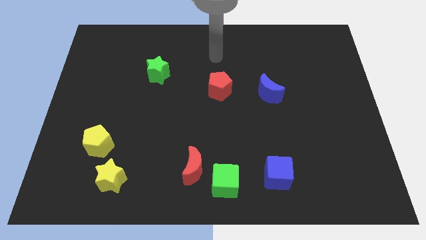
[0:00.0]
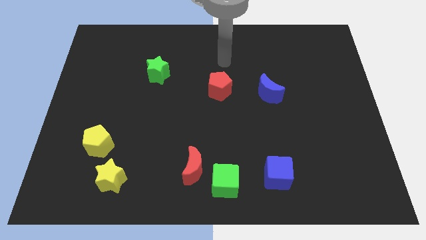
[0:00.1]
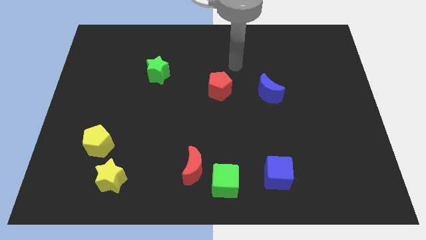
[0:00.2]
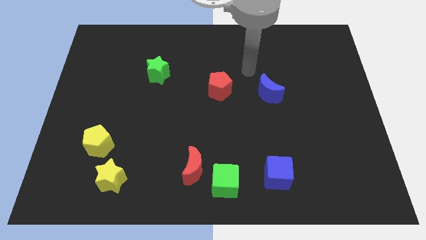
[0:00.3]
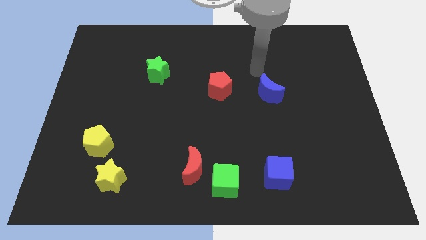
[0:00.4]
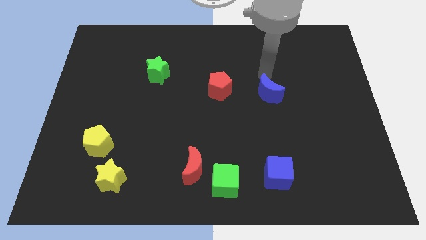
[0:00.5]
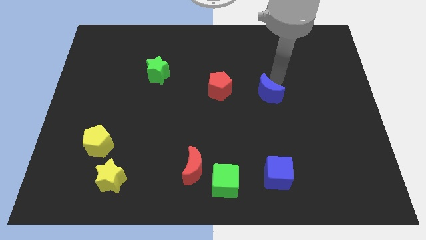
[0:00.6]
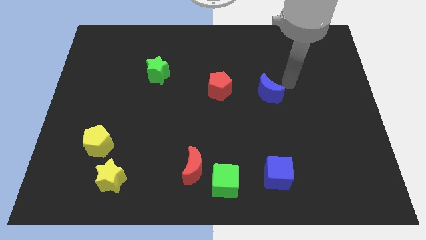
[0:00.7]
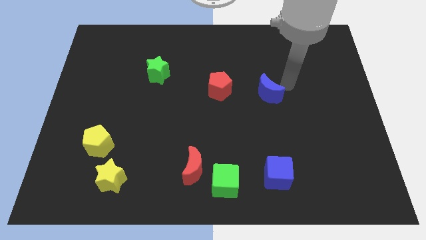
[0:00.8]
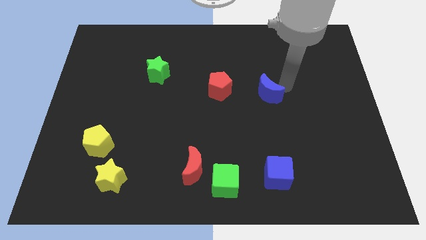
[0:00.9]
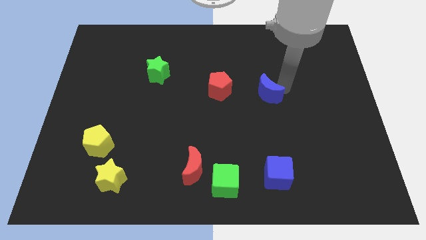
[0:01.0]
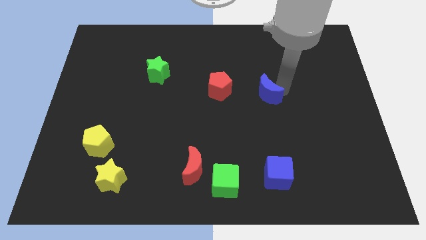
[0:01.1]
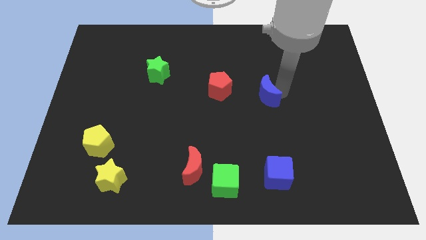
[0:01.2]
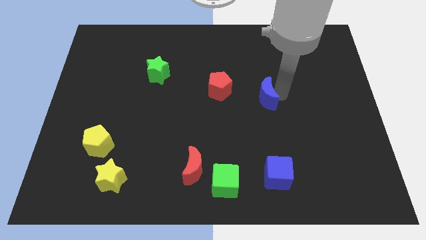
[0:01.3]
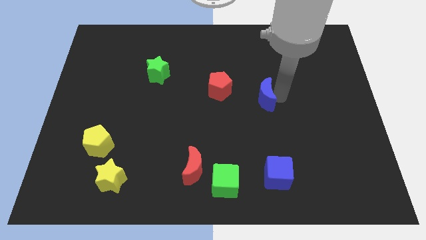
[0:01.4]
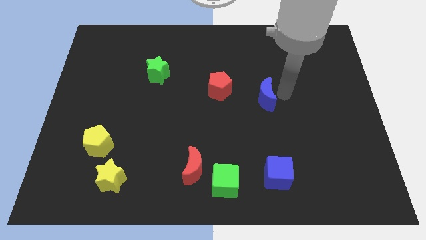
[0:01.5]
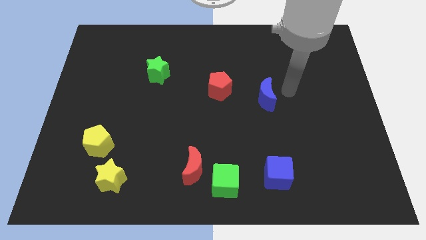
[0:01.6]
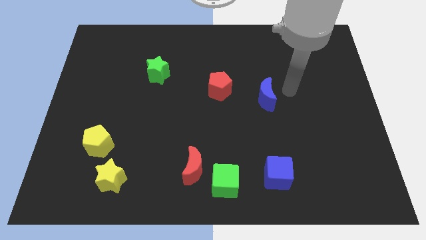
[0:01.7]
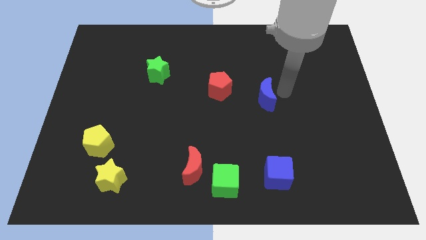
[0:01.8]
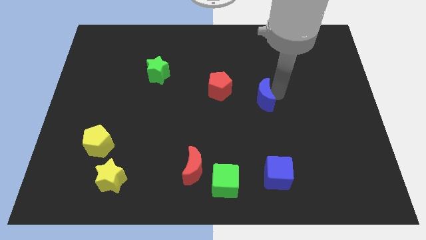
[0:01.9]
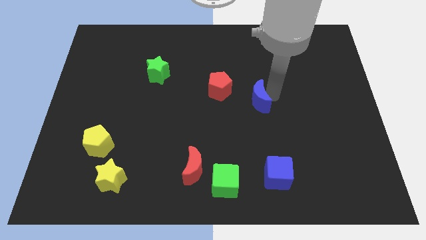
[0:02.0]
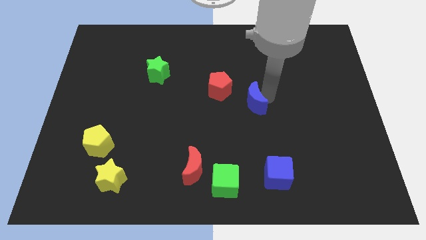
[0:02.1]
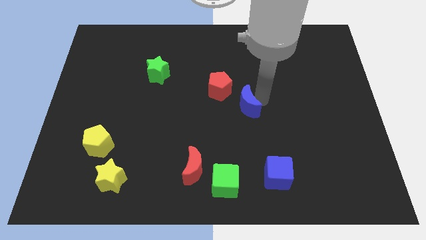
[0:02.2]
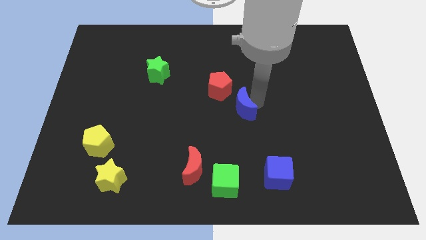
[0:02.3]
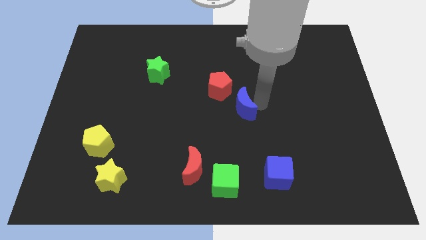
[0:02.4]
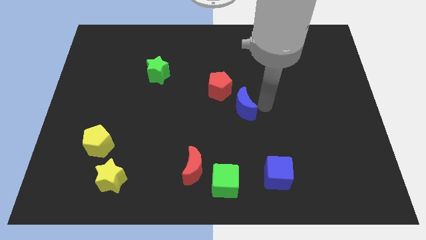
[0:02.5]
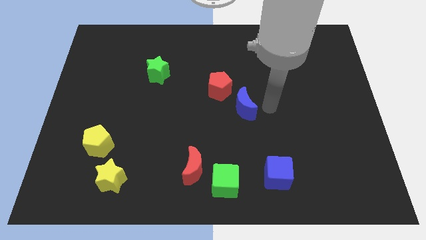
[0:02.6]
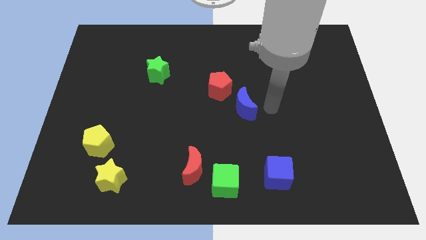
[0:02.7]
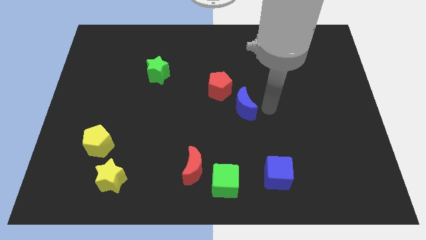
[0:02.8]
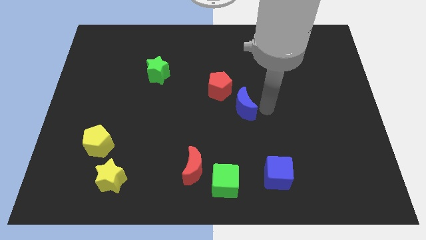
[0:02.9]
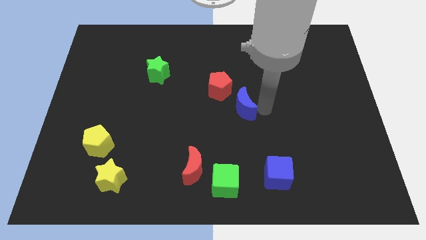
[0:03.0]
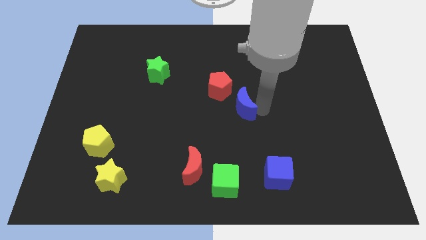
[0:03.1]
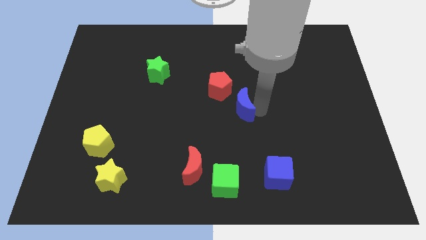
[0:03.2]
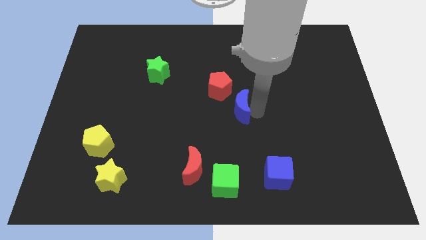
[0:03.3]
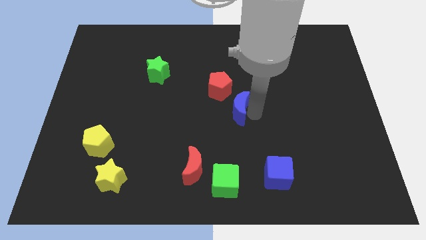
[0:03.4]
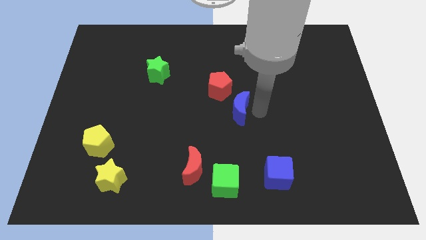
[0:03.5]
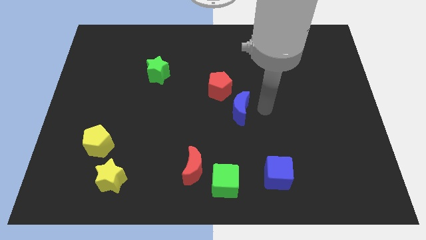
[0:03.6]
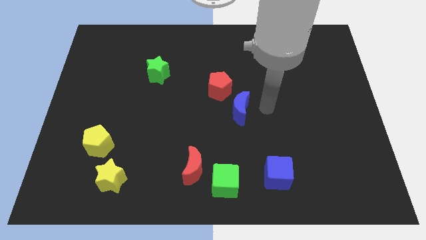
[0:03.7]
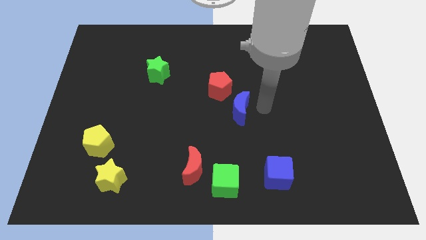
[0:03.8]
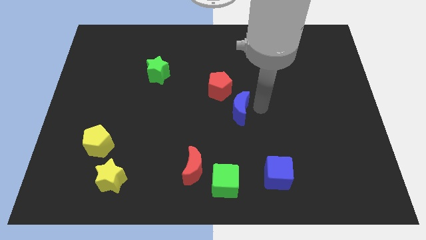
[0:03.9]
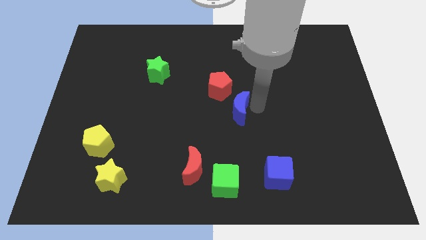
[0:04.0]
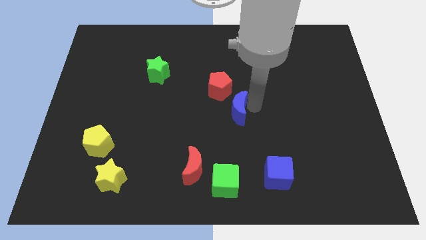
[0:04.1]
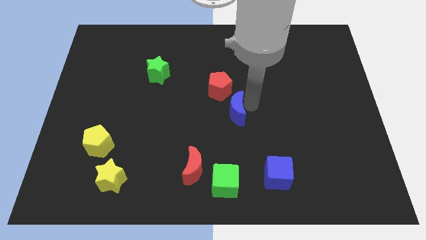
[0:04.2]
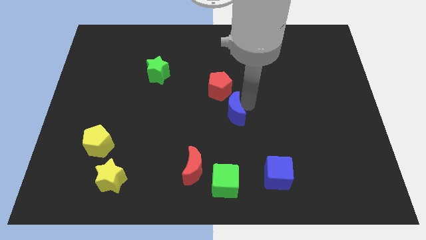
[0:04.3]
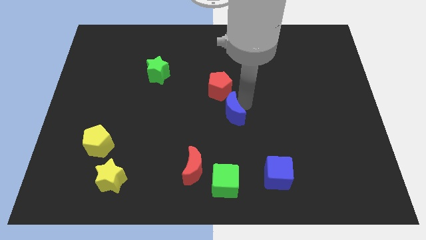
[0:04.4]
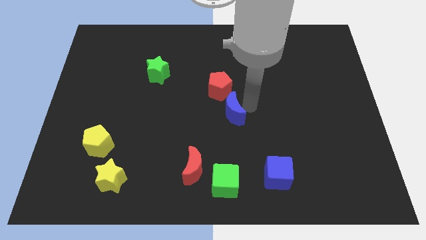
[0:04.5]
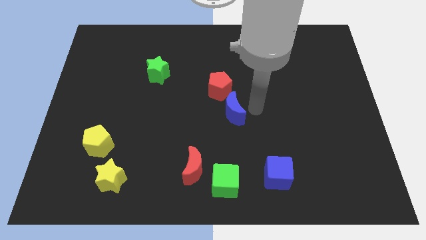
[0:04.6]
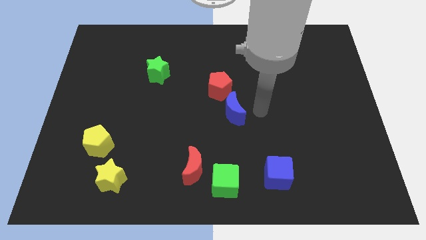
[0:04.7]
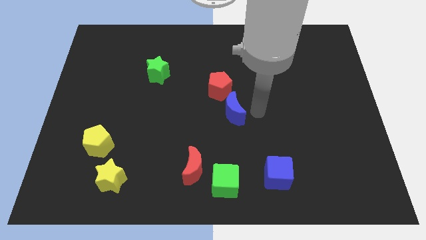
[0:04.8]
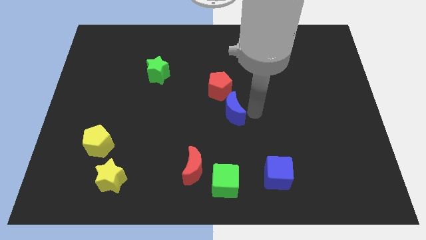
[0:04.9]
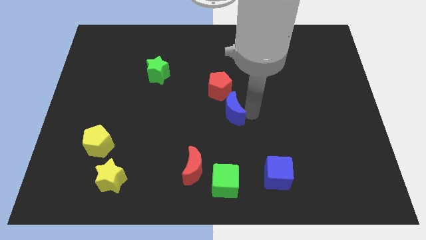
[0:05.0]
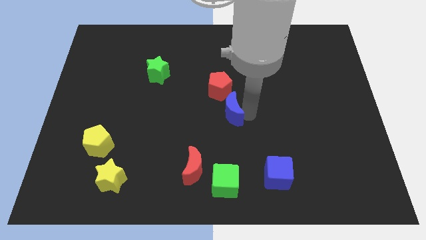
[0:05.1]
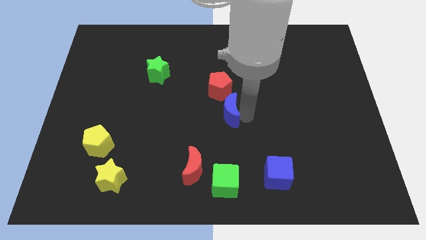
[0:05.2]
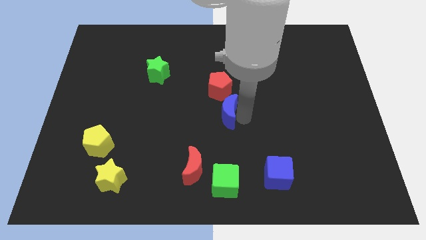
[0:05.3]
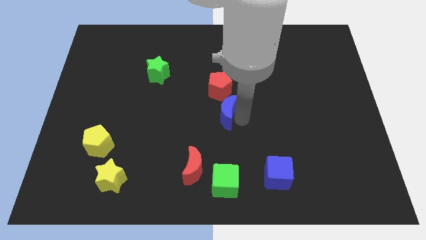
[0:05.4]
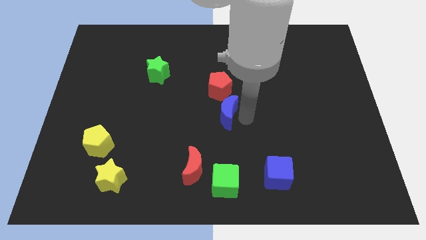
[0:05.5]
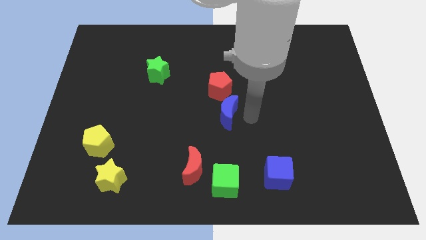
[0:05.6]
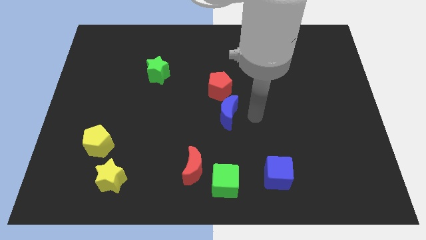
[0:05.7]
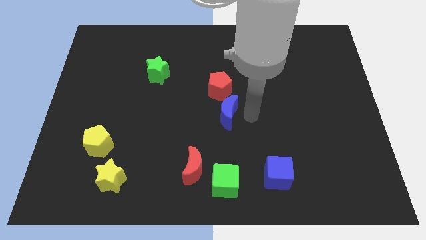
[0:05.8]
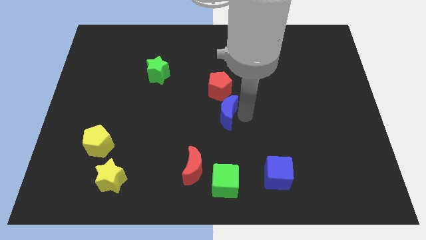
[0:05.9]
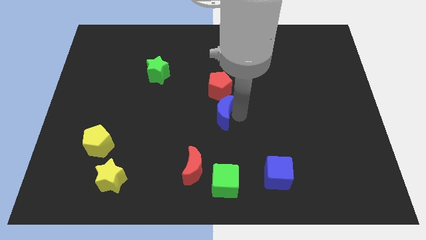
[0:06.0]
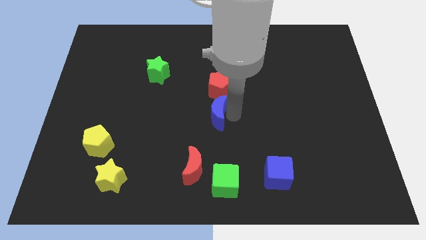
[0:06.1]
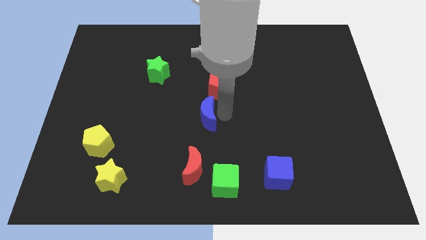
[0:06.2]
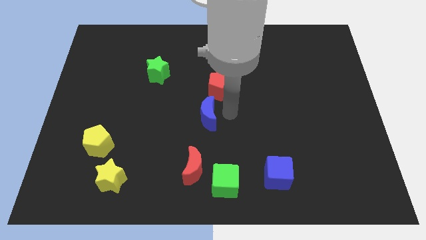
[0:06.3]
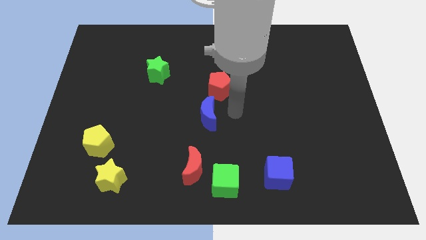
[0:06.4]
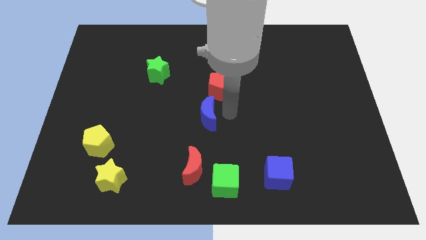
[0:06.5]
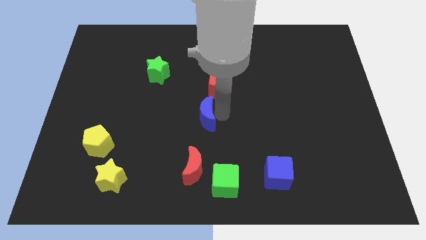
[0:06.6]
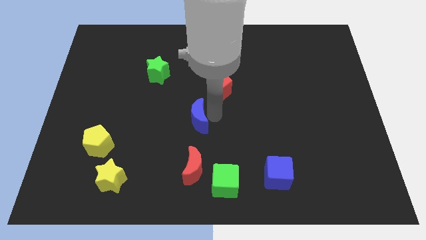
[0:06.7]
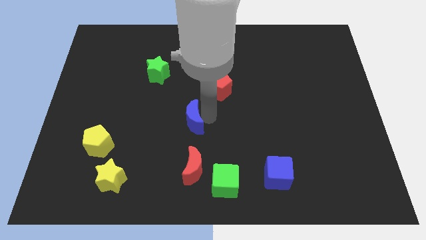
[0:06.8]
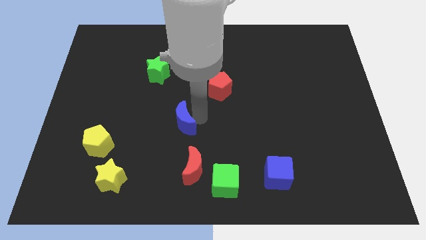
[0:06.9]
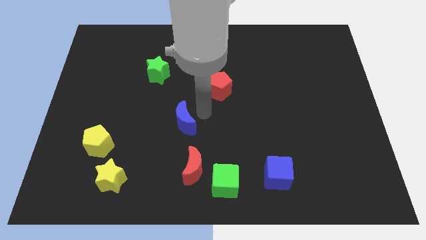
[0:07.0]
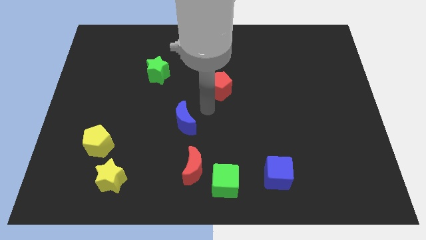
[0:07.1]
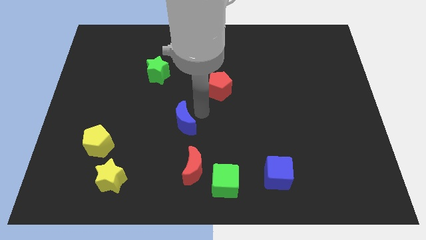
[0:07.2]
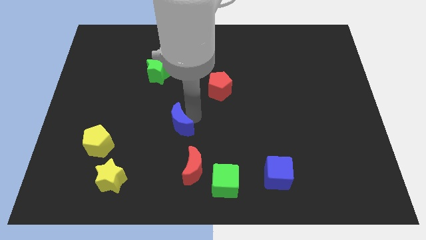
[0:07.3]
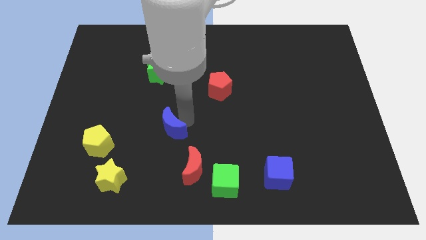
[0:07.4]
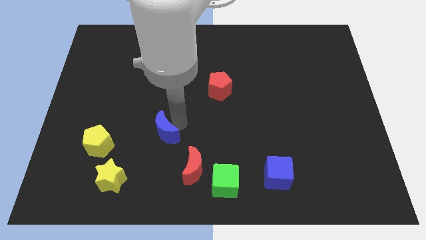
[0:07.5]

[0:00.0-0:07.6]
move the blue moon to the right side of the yellow pentagon
